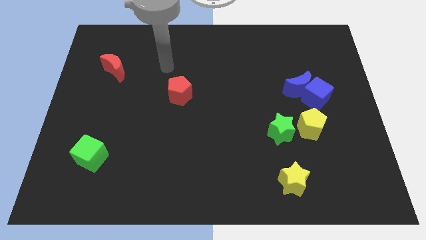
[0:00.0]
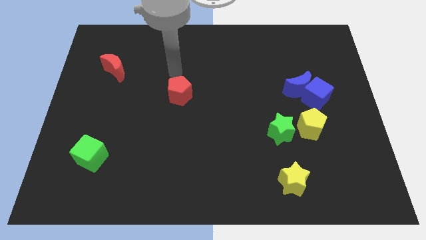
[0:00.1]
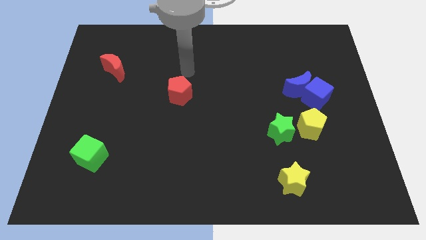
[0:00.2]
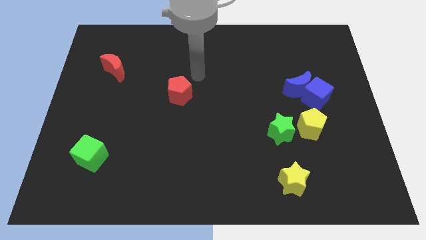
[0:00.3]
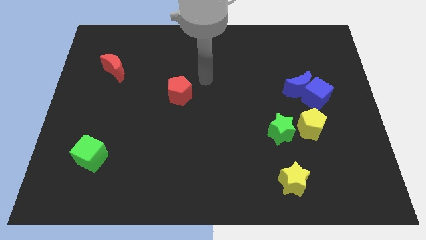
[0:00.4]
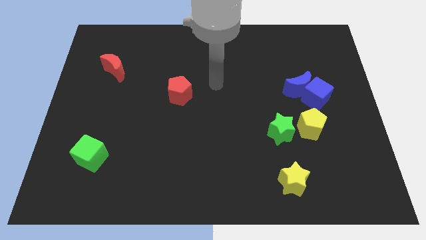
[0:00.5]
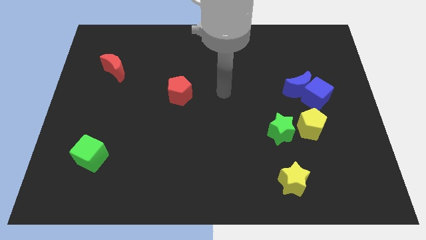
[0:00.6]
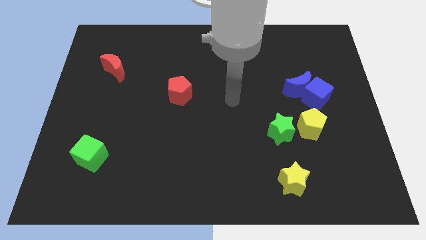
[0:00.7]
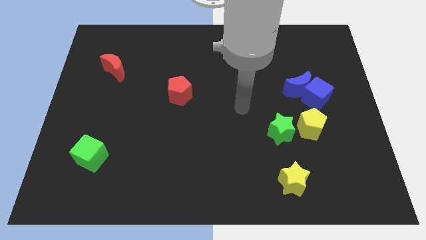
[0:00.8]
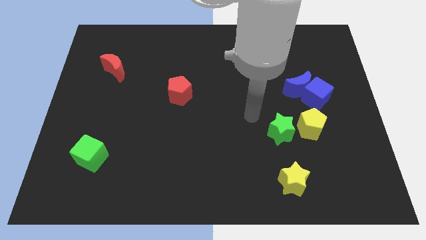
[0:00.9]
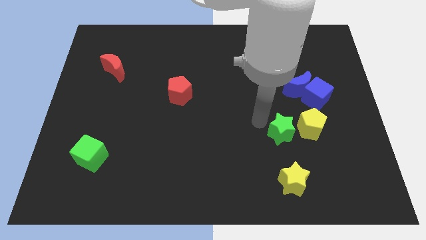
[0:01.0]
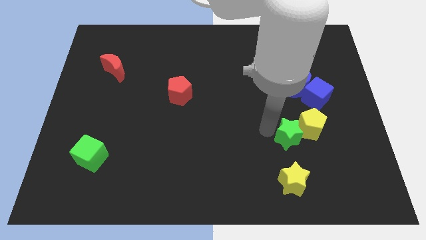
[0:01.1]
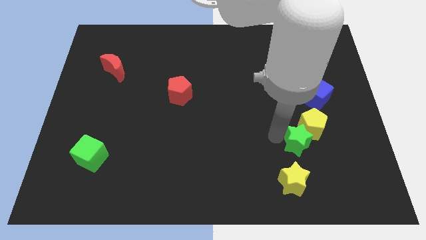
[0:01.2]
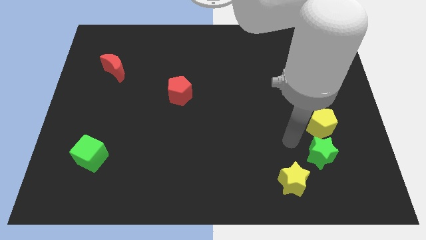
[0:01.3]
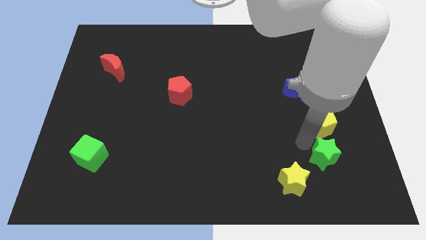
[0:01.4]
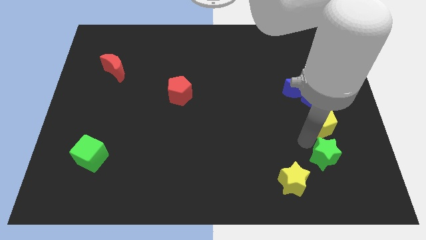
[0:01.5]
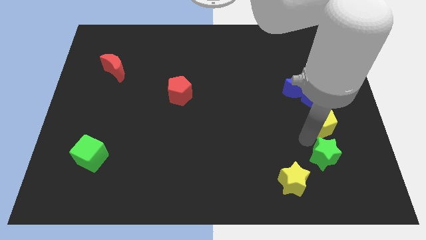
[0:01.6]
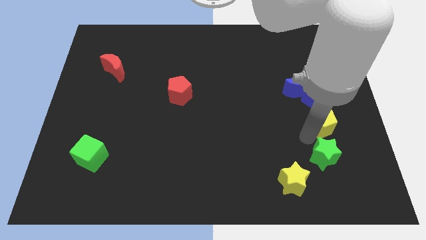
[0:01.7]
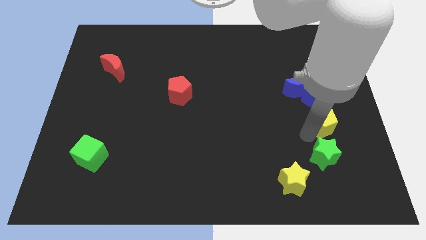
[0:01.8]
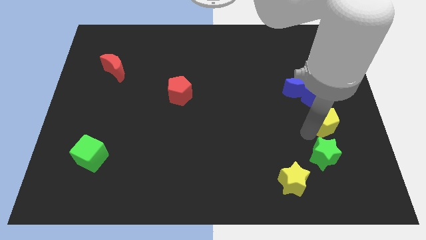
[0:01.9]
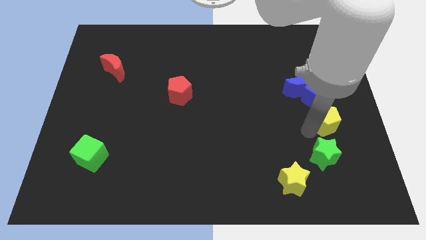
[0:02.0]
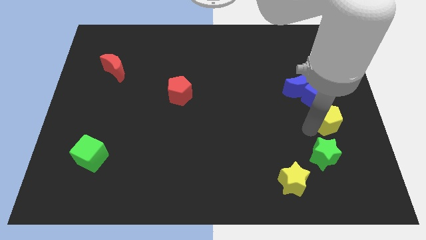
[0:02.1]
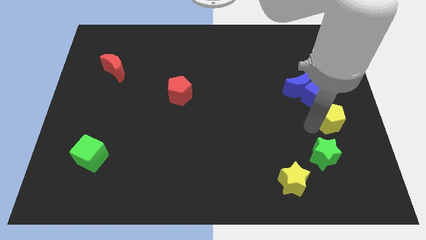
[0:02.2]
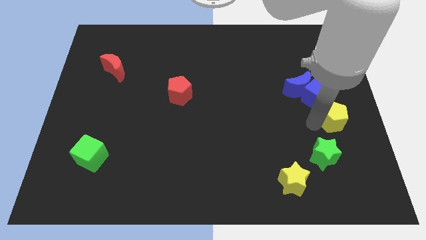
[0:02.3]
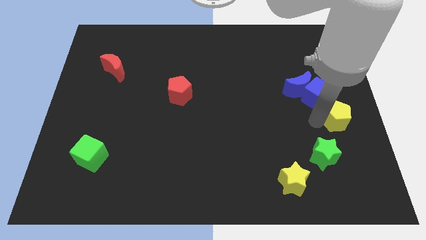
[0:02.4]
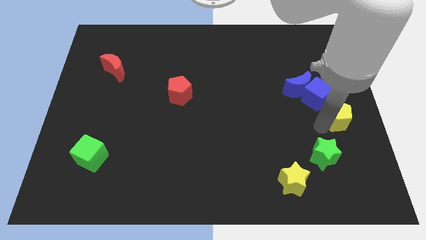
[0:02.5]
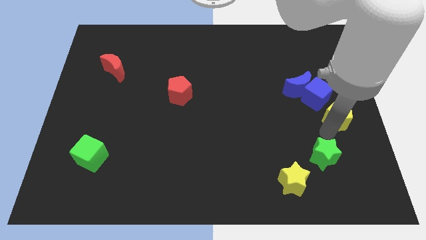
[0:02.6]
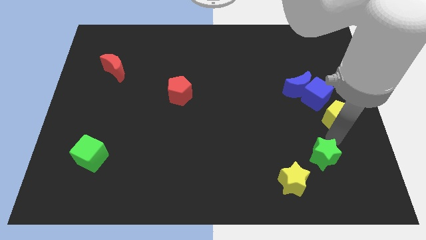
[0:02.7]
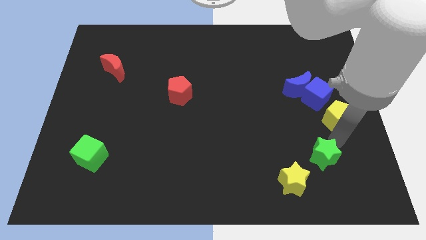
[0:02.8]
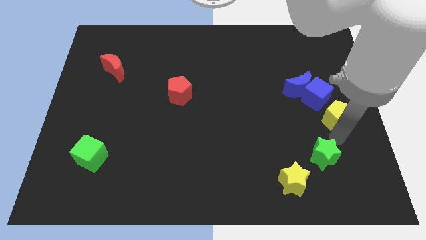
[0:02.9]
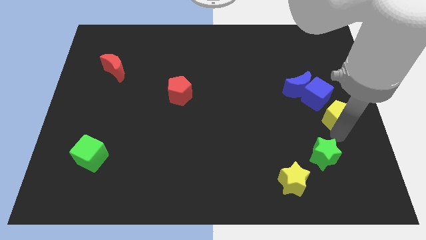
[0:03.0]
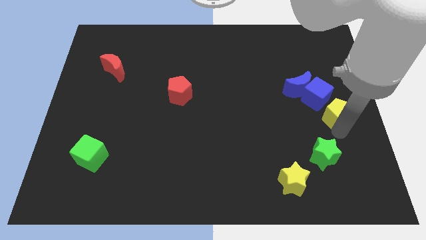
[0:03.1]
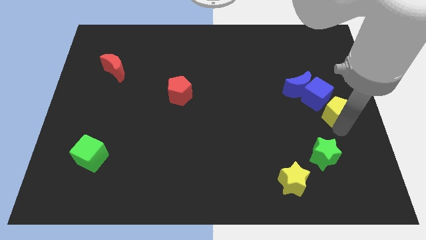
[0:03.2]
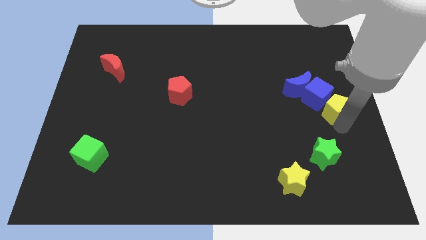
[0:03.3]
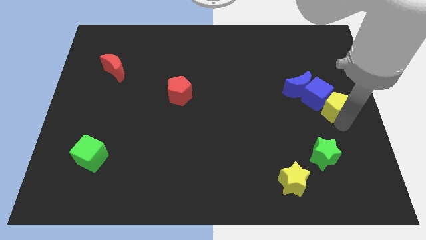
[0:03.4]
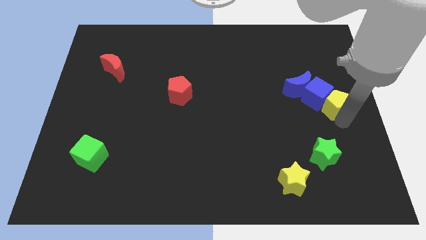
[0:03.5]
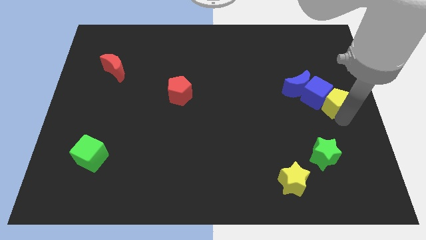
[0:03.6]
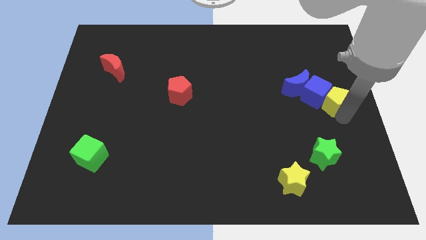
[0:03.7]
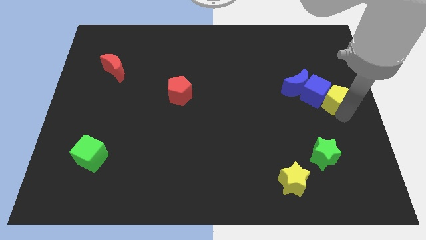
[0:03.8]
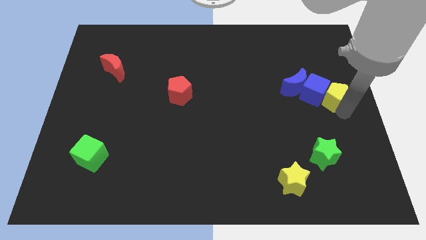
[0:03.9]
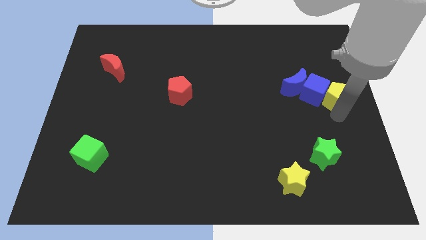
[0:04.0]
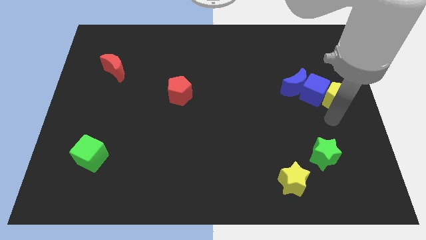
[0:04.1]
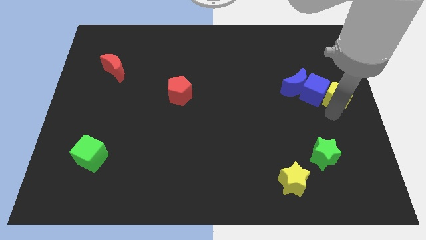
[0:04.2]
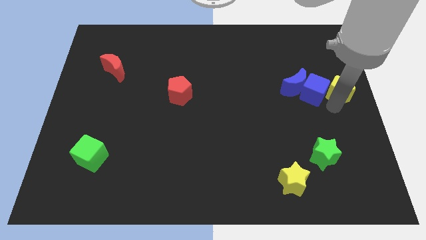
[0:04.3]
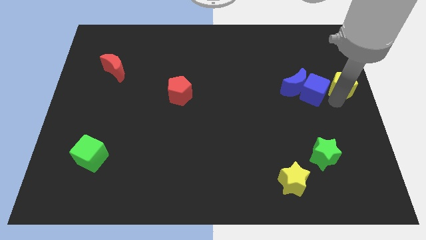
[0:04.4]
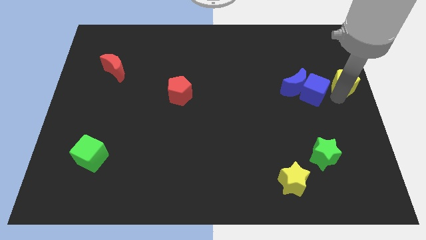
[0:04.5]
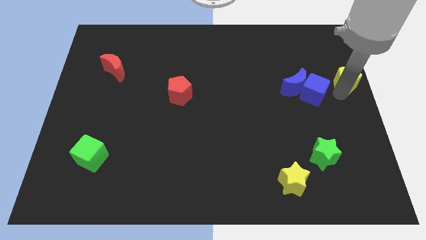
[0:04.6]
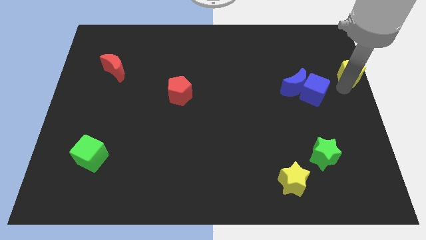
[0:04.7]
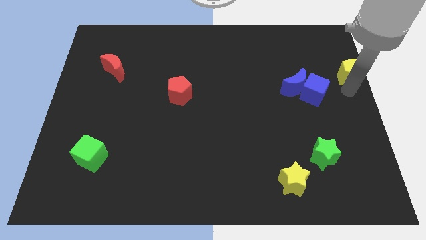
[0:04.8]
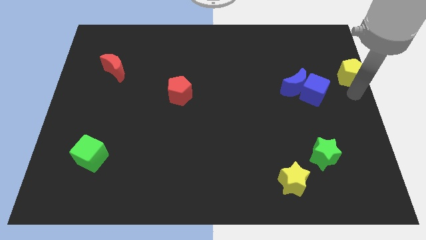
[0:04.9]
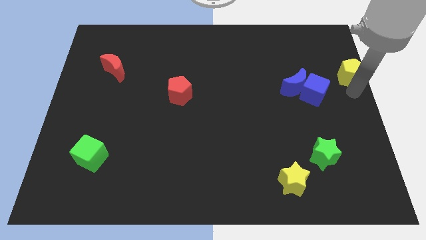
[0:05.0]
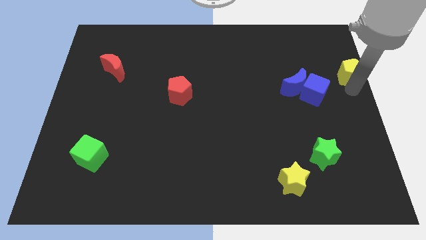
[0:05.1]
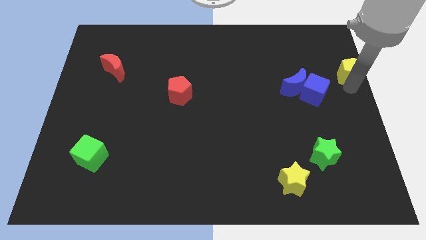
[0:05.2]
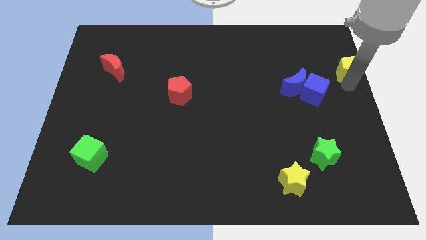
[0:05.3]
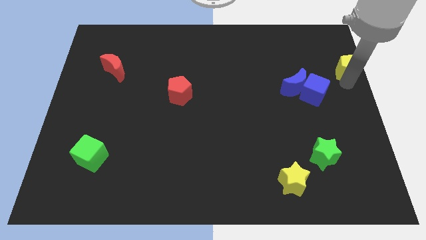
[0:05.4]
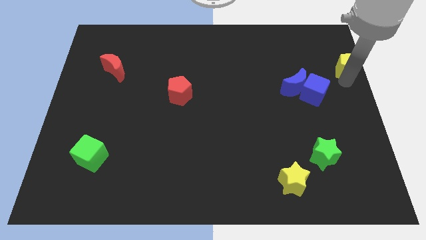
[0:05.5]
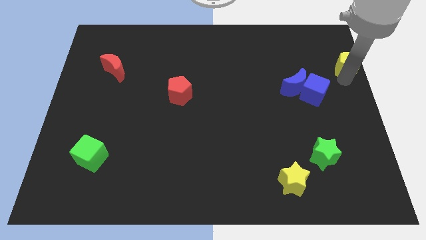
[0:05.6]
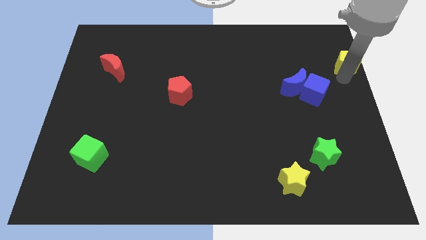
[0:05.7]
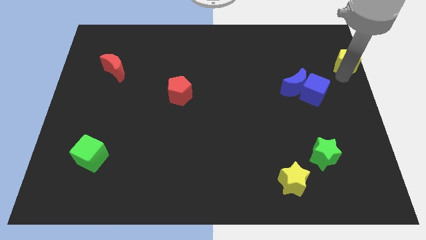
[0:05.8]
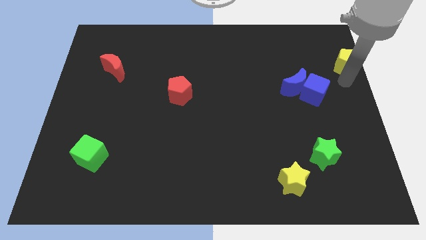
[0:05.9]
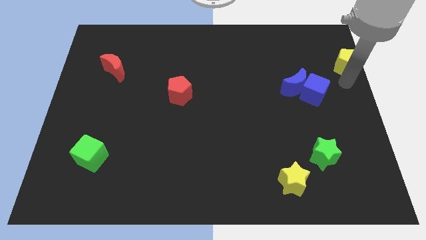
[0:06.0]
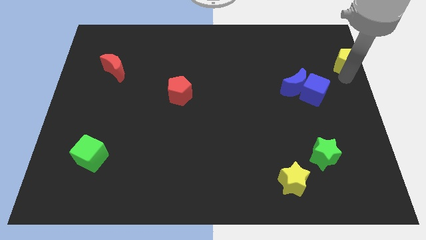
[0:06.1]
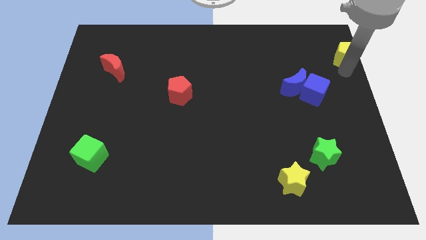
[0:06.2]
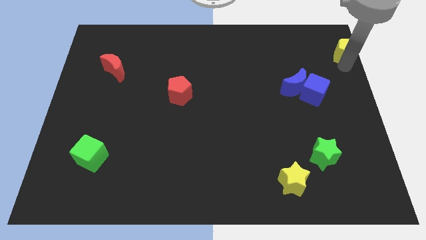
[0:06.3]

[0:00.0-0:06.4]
move the yellow pentagon to the upper right corner

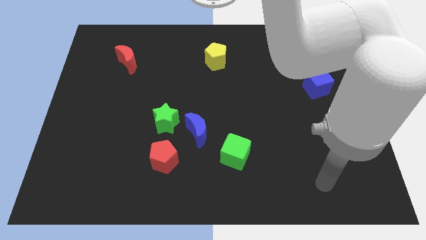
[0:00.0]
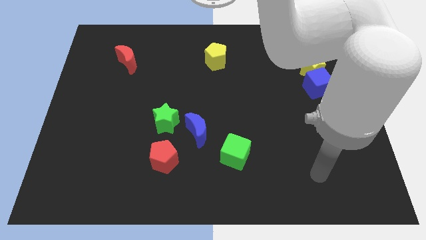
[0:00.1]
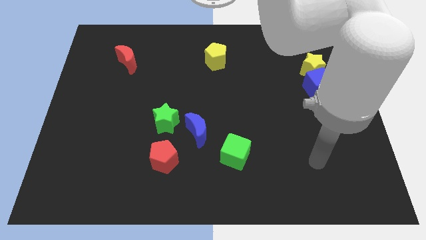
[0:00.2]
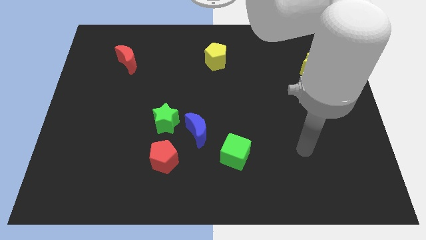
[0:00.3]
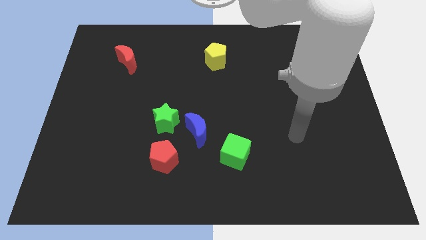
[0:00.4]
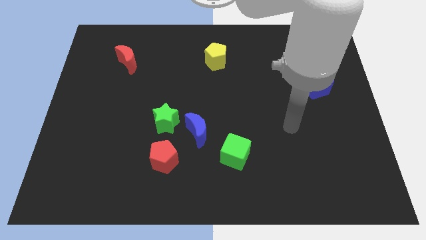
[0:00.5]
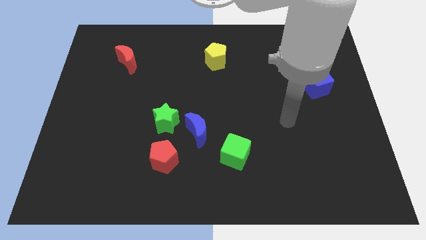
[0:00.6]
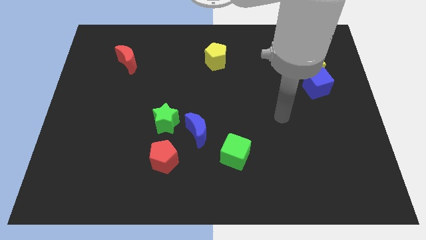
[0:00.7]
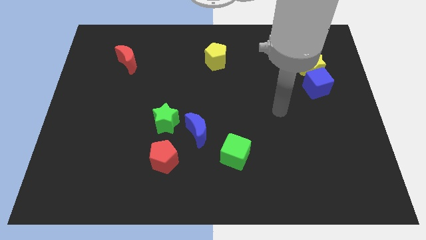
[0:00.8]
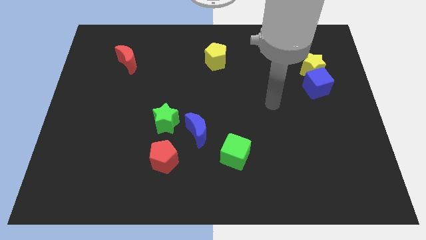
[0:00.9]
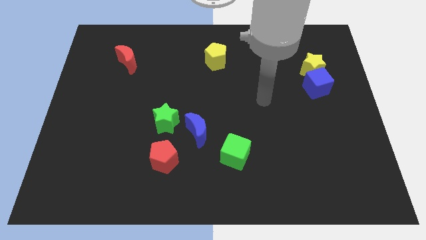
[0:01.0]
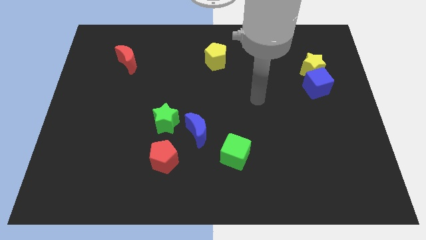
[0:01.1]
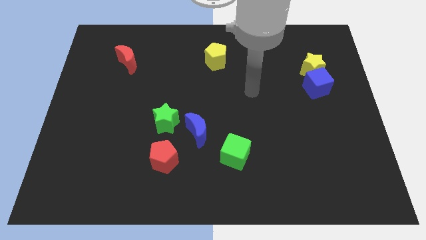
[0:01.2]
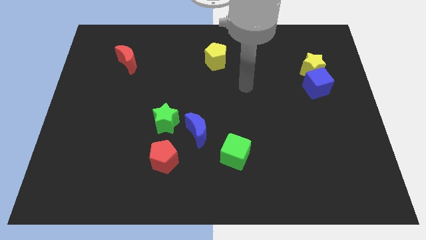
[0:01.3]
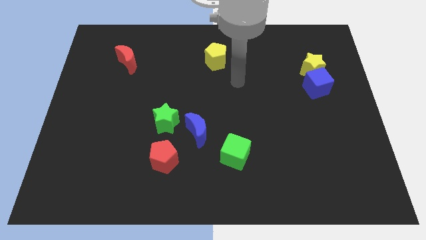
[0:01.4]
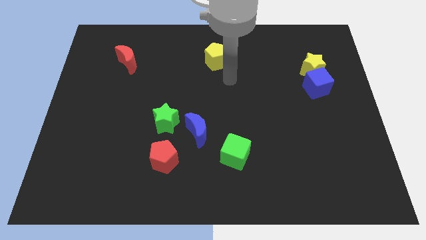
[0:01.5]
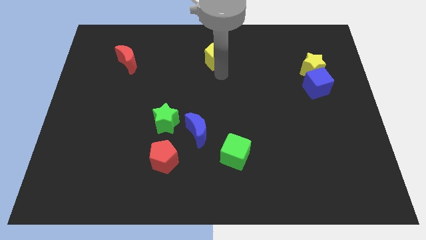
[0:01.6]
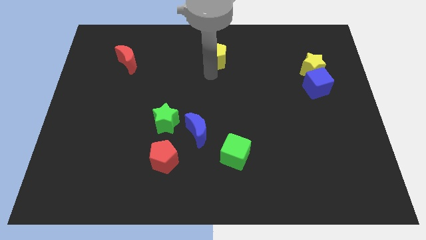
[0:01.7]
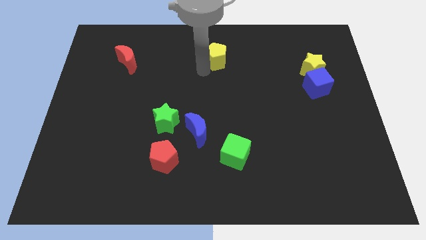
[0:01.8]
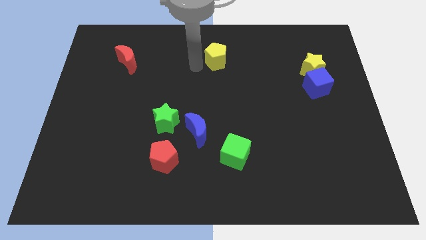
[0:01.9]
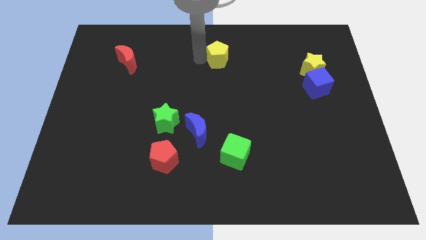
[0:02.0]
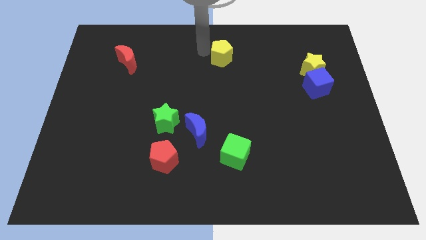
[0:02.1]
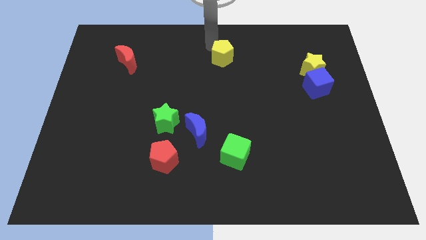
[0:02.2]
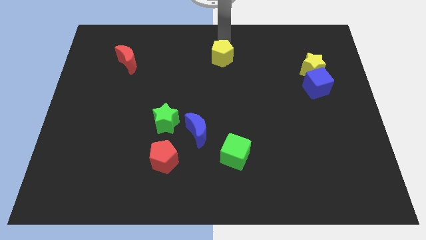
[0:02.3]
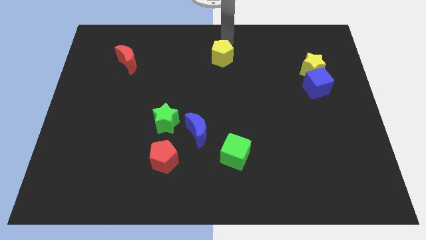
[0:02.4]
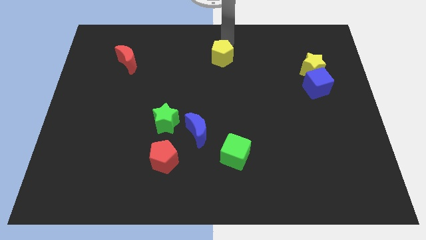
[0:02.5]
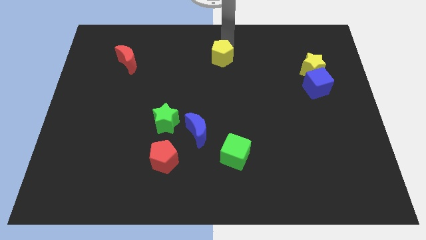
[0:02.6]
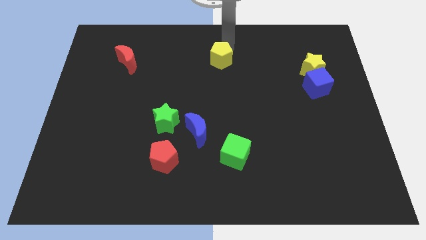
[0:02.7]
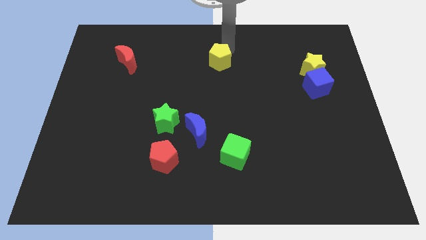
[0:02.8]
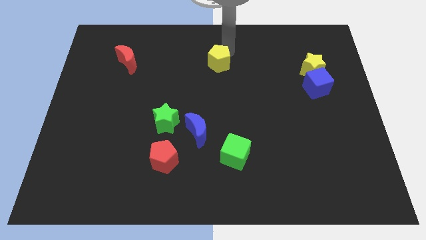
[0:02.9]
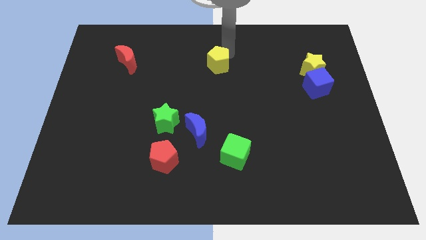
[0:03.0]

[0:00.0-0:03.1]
slide the yellow pentagon to the center of the board
